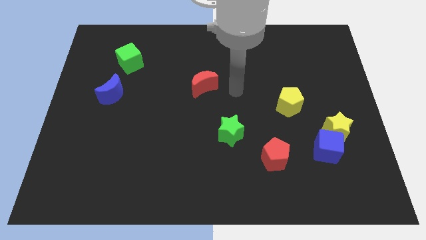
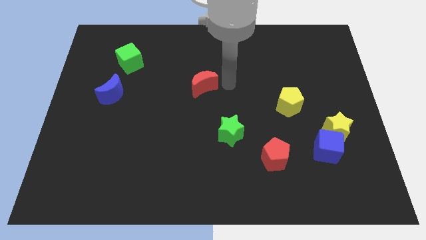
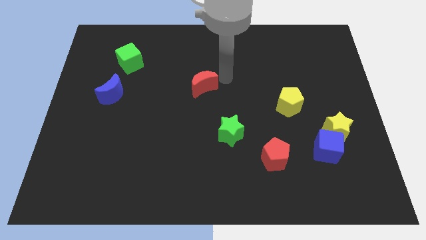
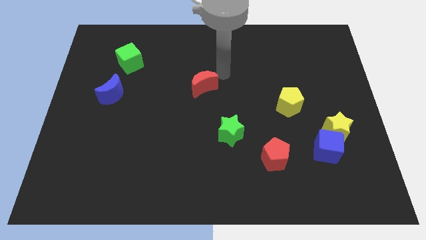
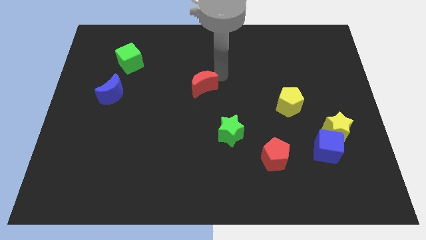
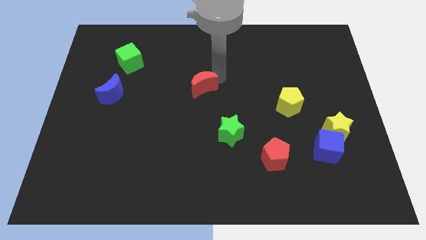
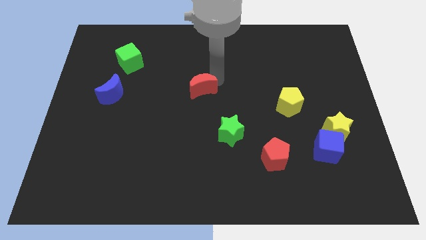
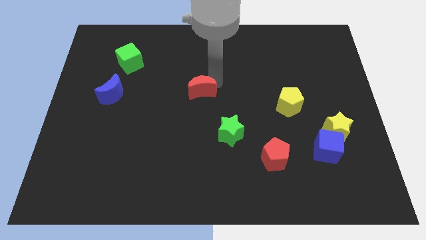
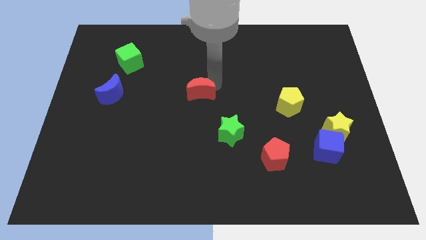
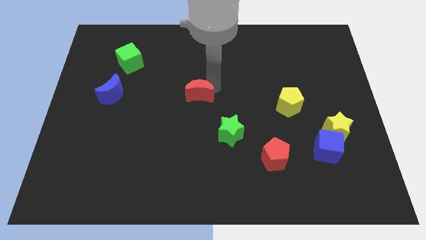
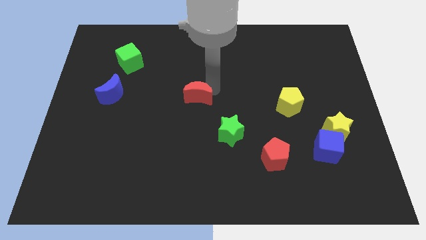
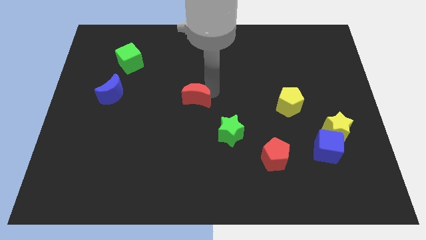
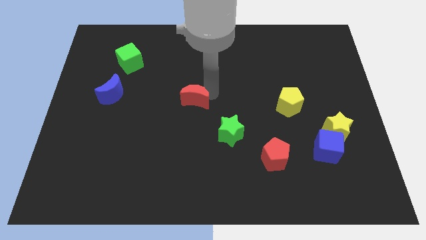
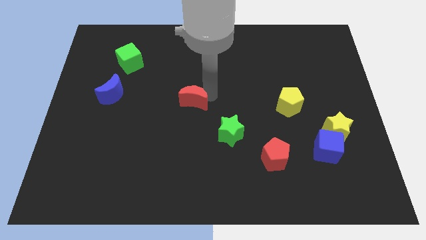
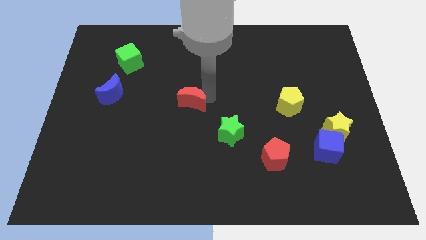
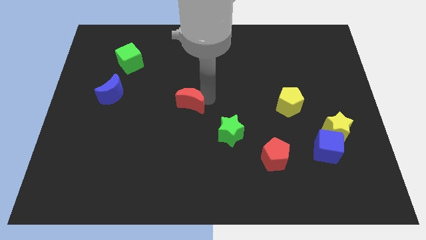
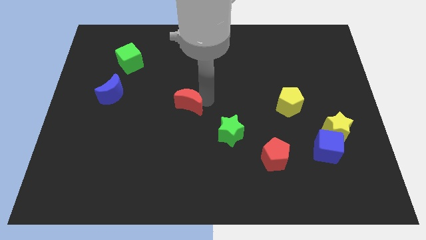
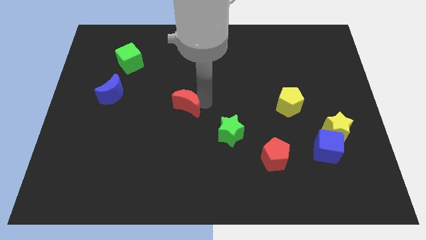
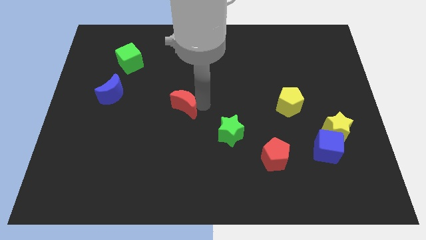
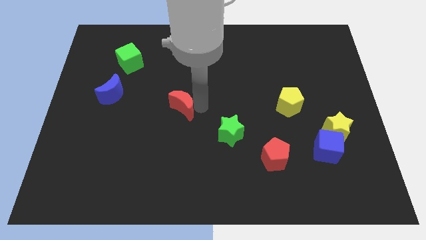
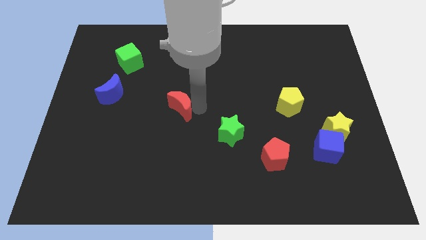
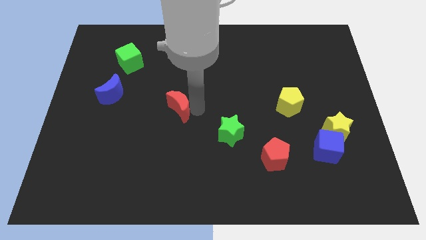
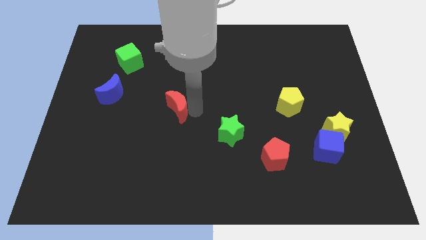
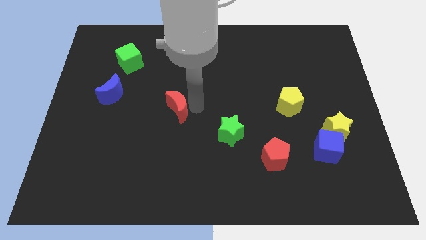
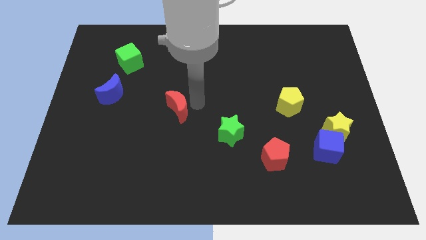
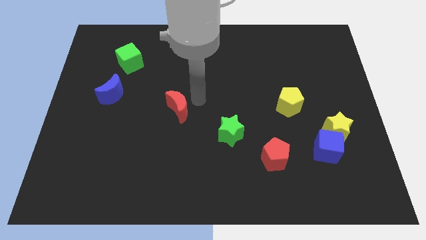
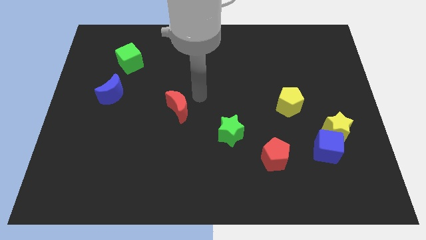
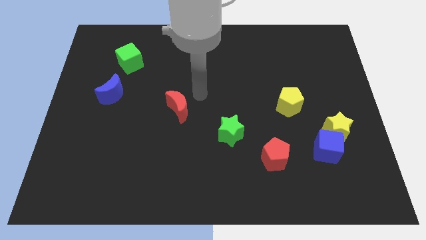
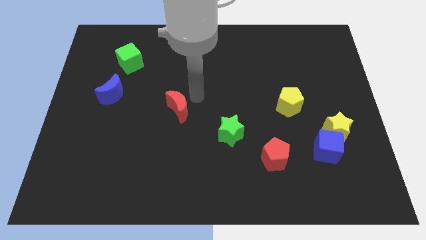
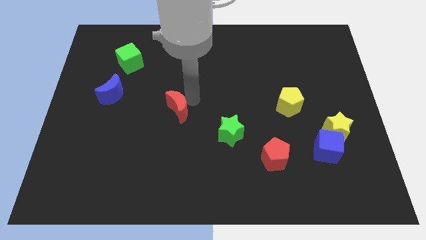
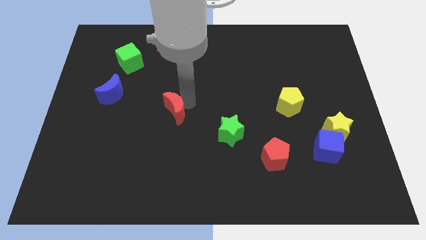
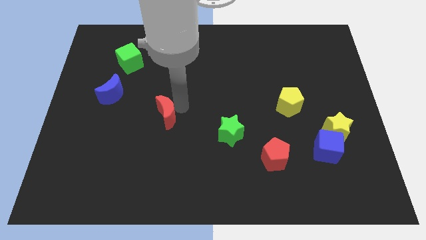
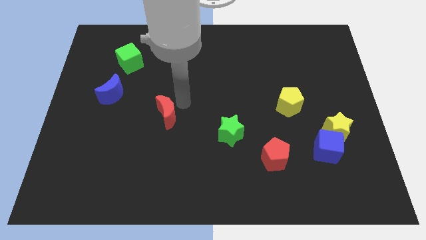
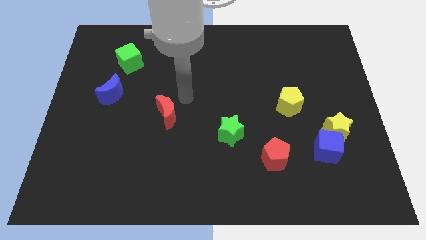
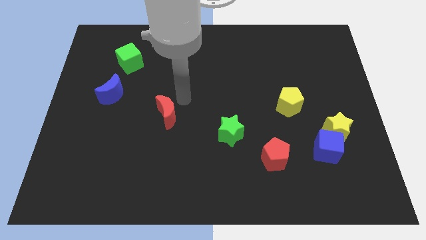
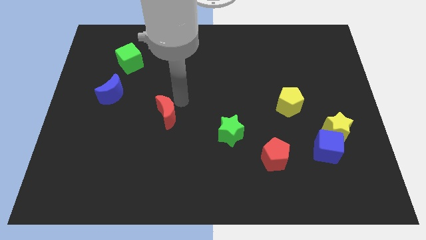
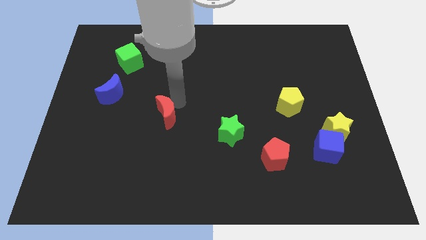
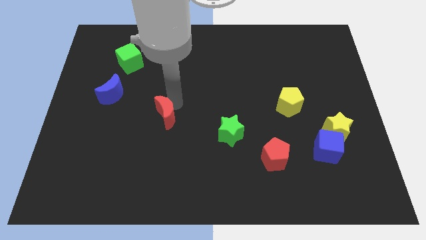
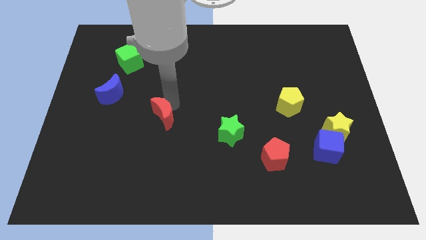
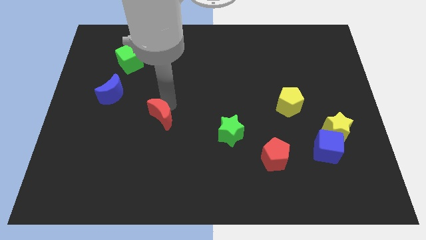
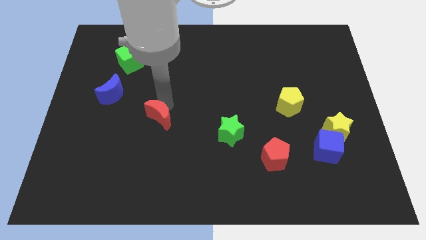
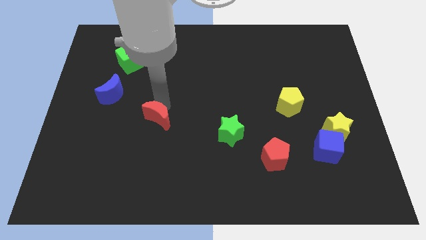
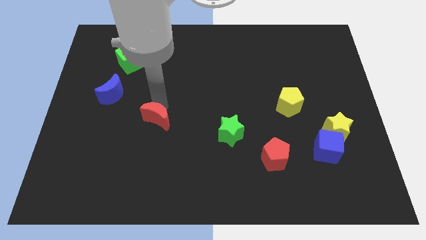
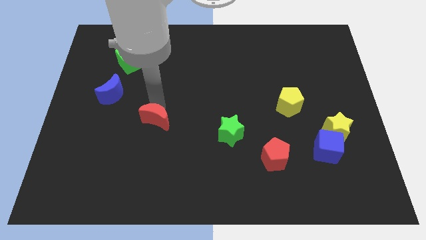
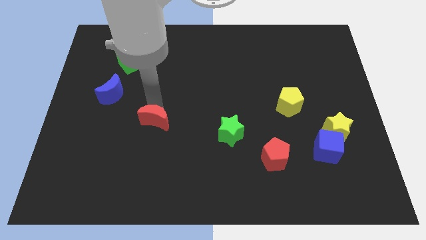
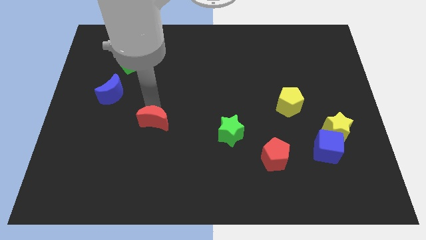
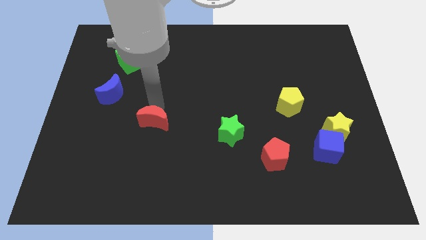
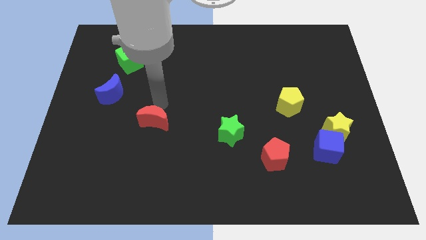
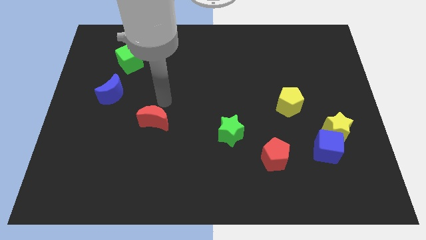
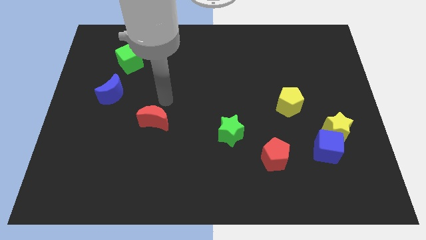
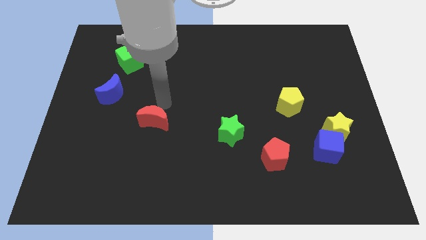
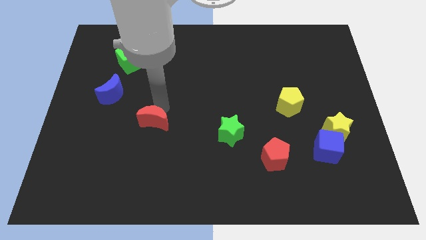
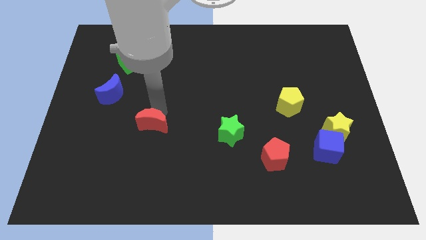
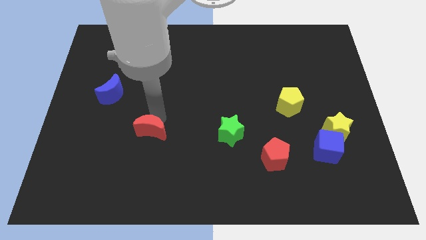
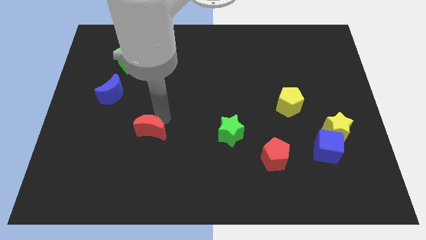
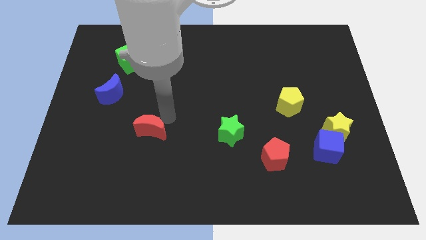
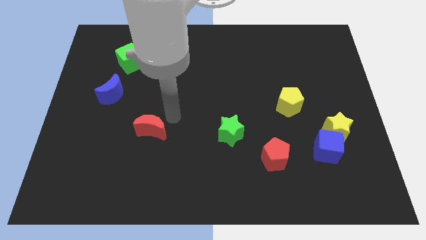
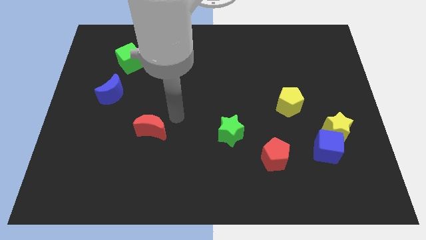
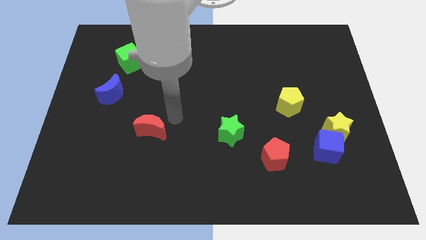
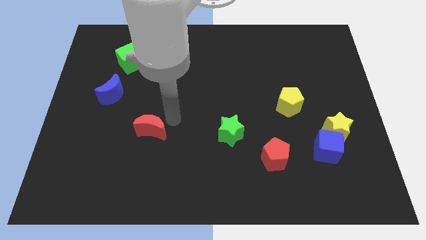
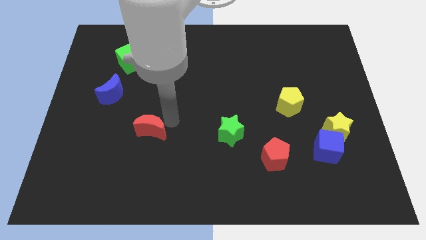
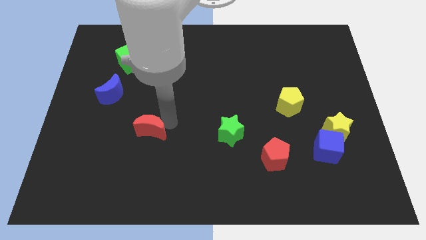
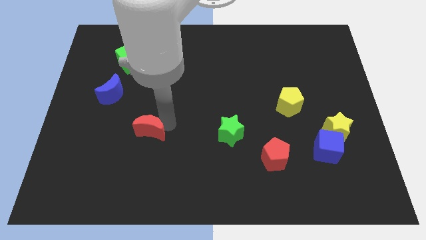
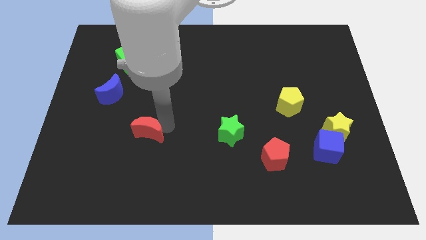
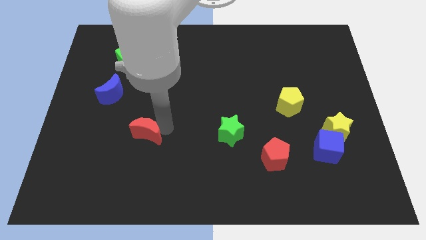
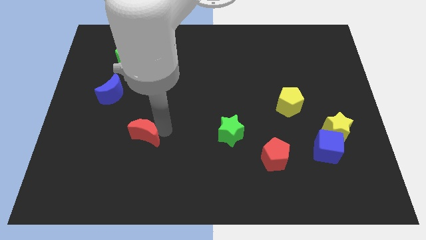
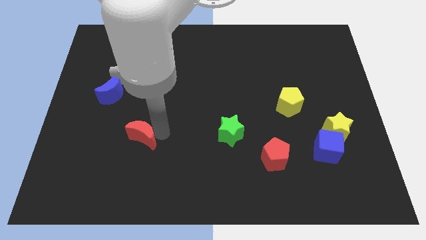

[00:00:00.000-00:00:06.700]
move the red moon down and left

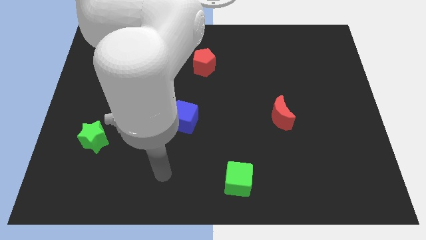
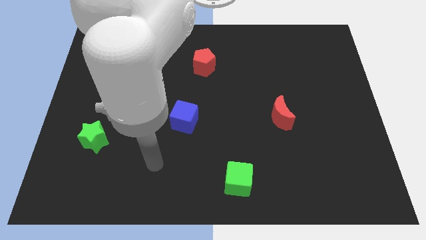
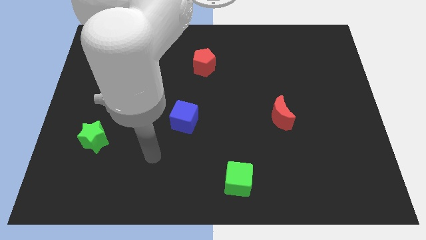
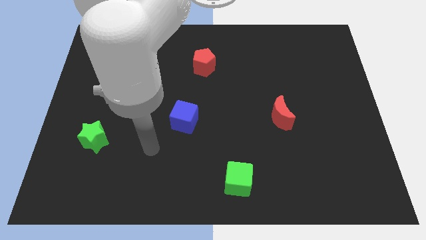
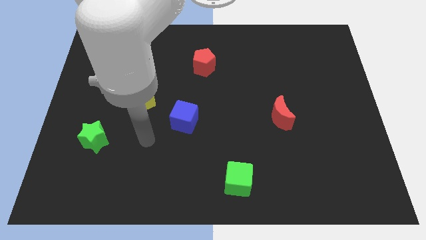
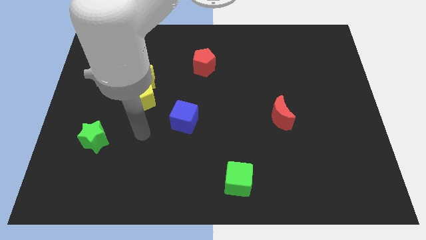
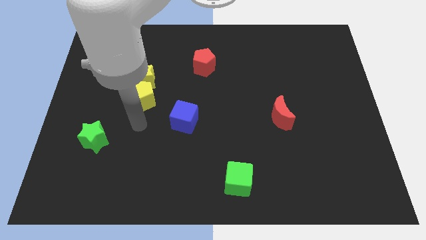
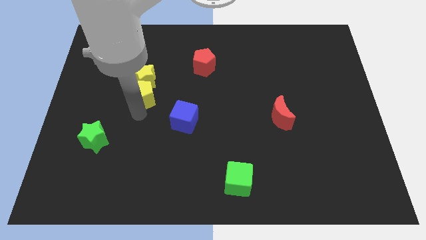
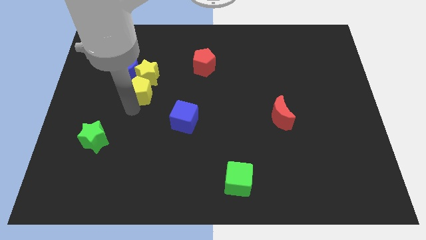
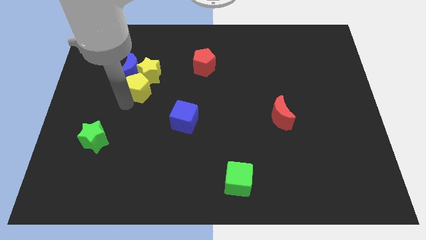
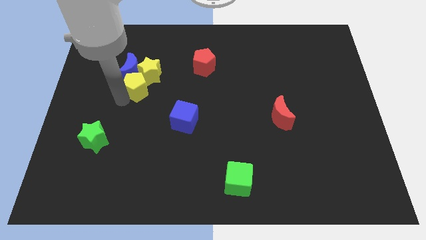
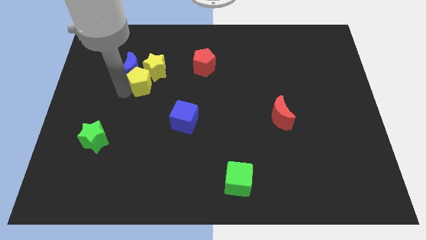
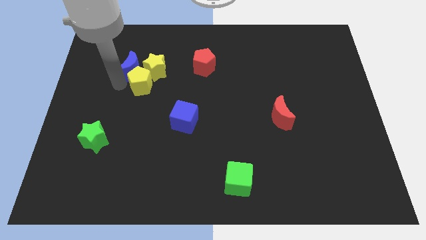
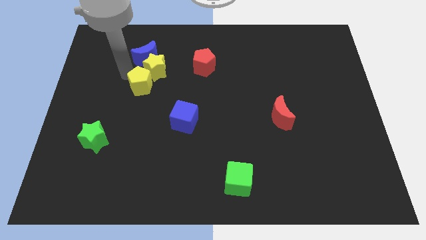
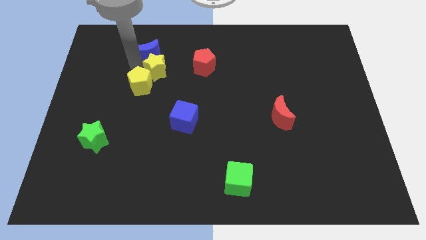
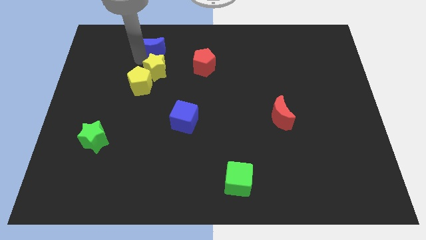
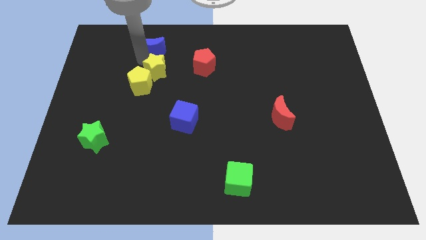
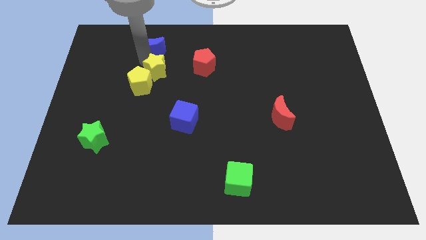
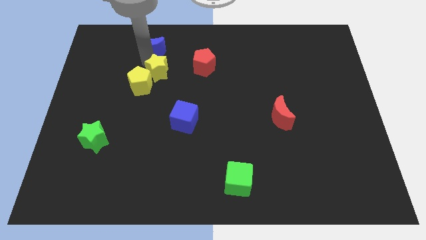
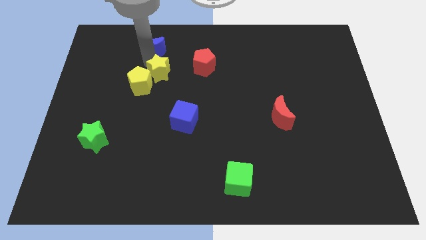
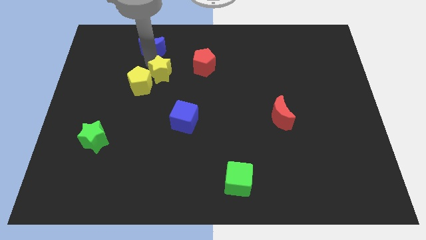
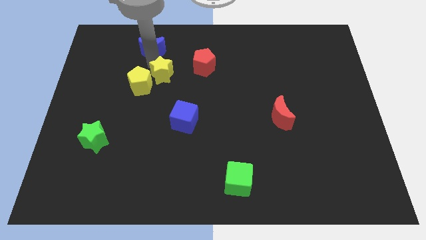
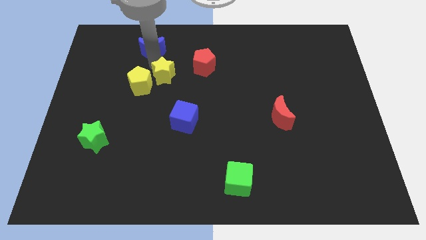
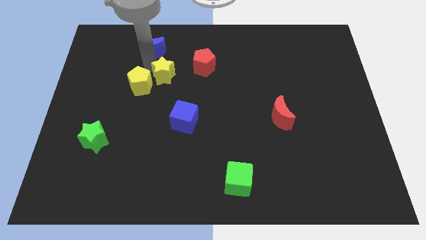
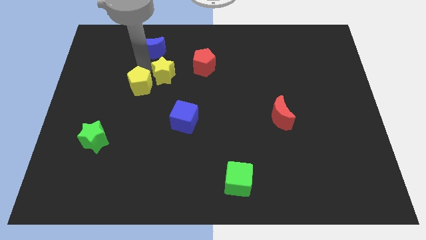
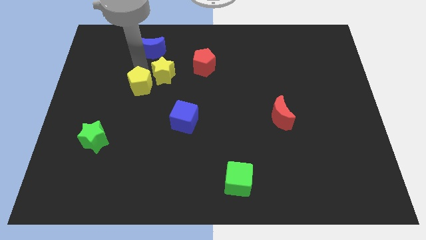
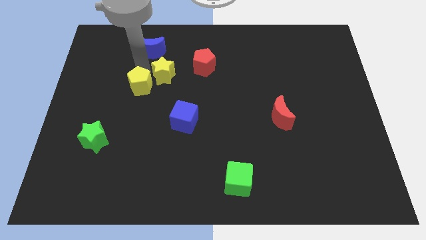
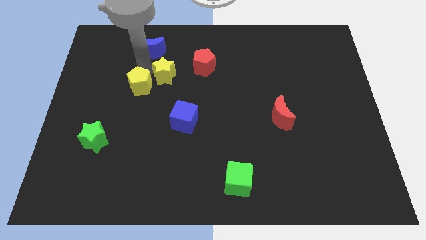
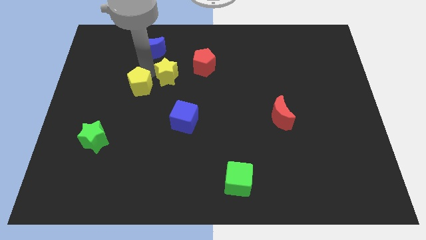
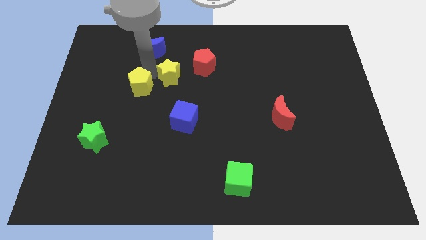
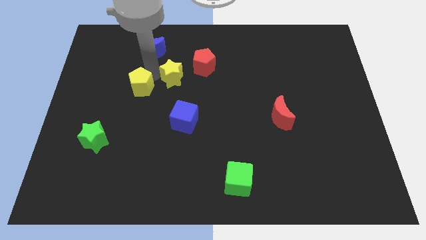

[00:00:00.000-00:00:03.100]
push the yellow star right somewhat
